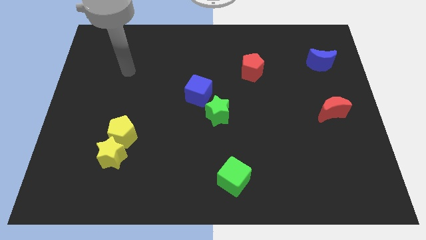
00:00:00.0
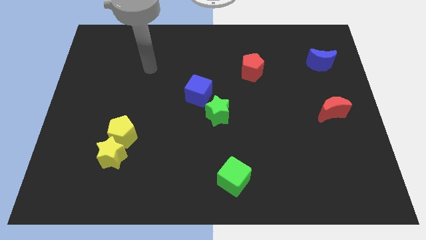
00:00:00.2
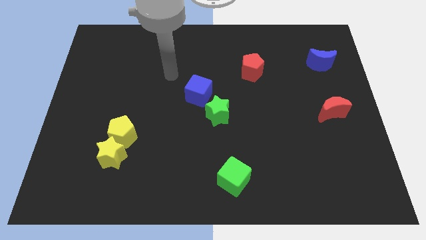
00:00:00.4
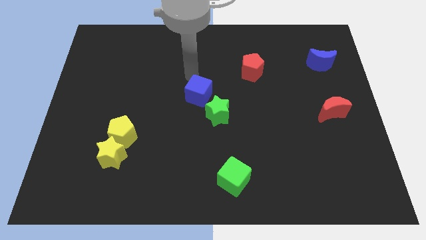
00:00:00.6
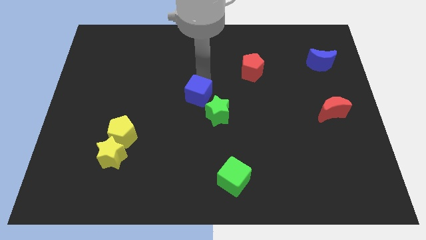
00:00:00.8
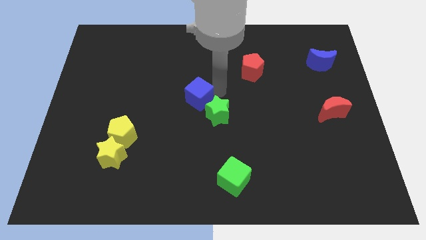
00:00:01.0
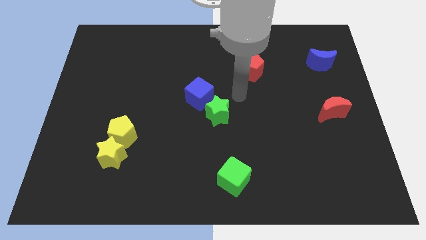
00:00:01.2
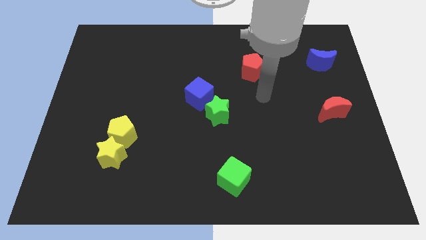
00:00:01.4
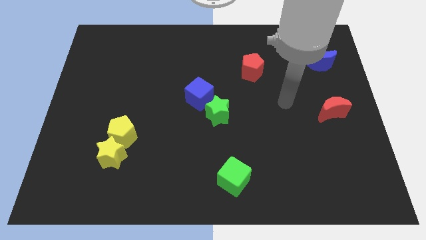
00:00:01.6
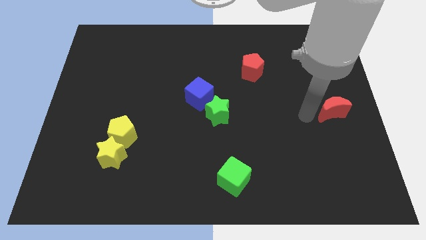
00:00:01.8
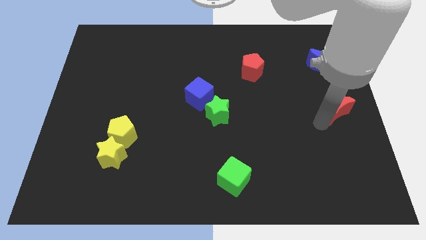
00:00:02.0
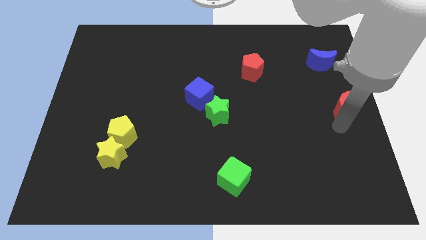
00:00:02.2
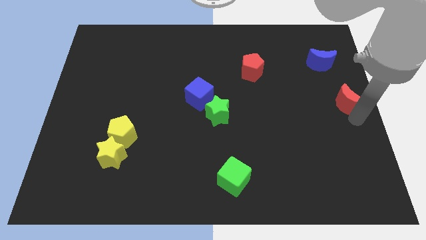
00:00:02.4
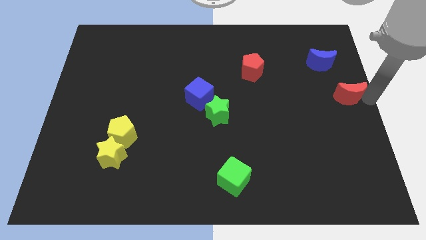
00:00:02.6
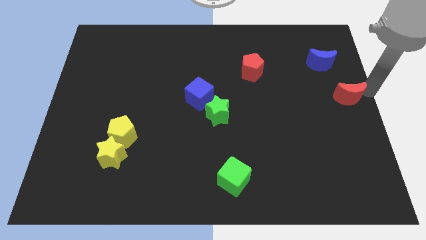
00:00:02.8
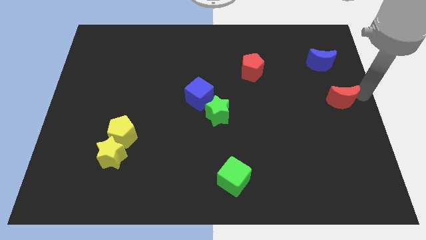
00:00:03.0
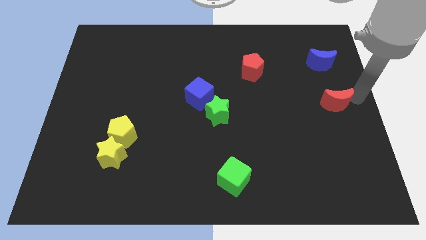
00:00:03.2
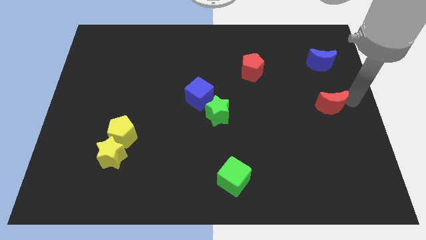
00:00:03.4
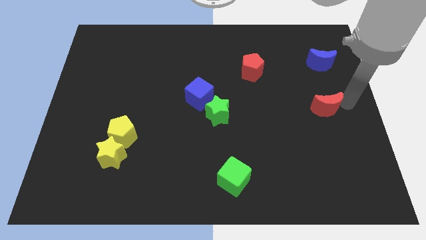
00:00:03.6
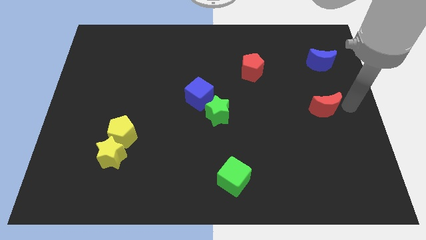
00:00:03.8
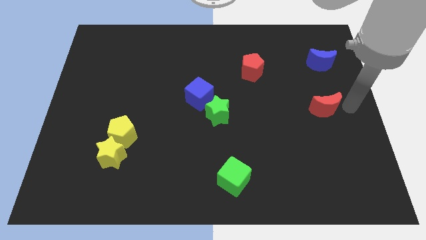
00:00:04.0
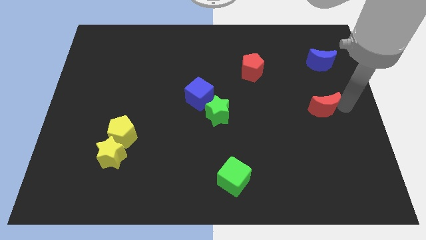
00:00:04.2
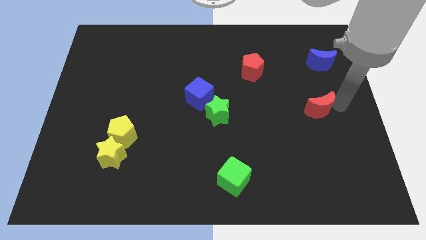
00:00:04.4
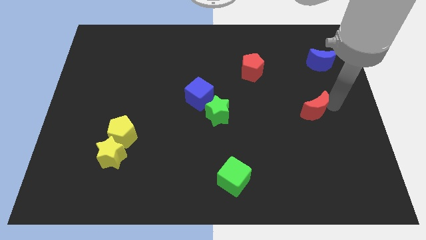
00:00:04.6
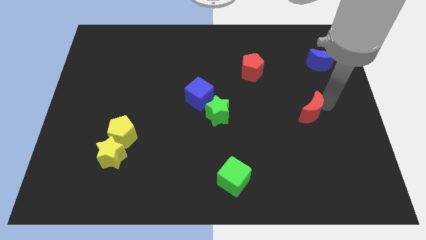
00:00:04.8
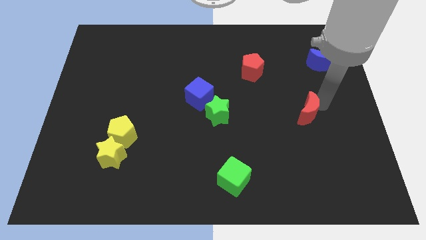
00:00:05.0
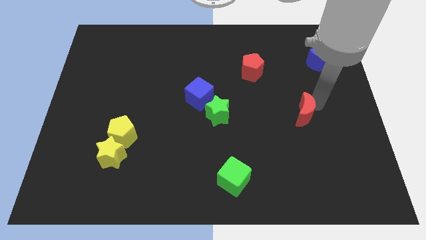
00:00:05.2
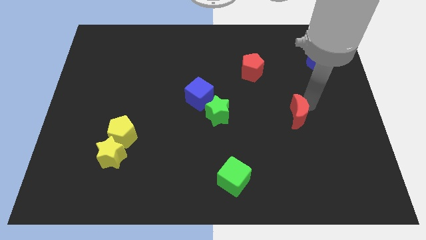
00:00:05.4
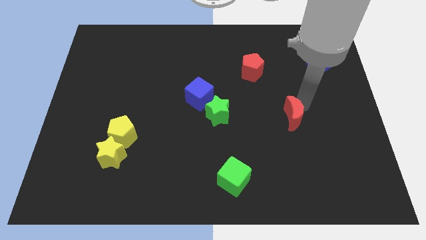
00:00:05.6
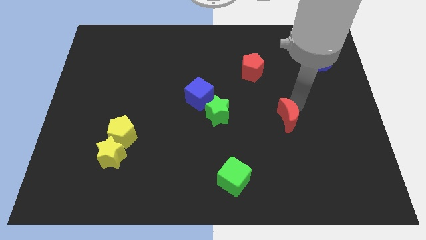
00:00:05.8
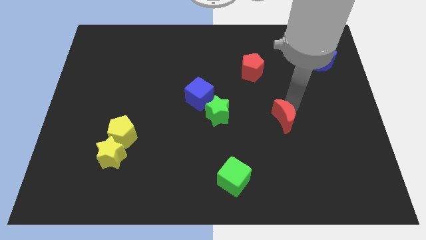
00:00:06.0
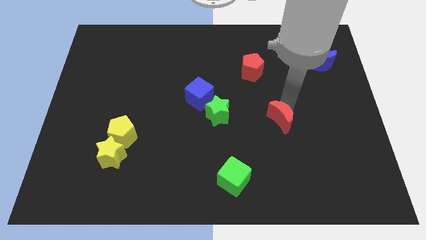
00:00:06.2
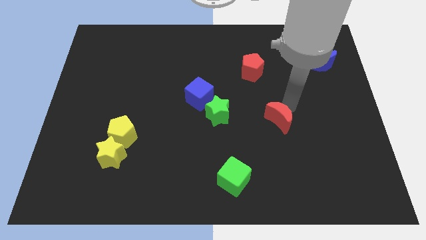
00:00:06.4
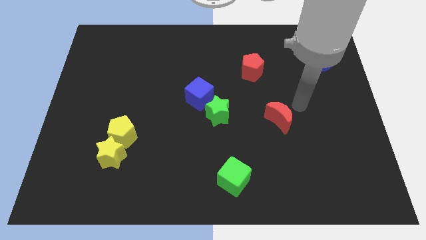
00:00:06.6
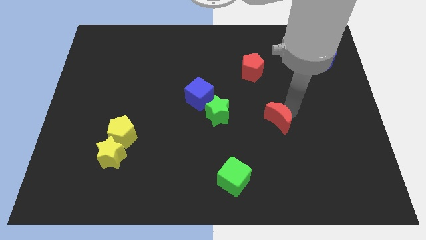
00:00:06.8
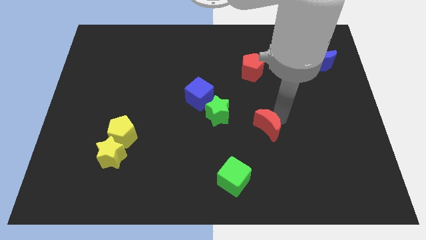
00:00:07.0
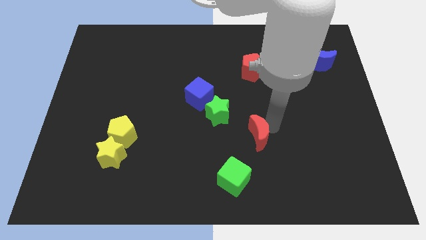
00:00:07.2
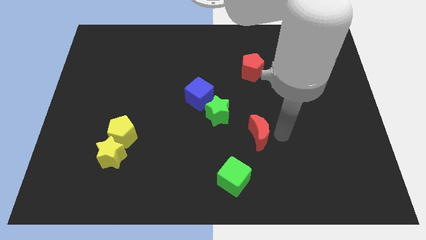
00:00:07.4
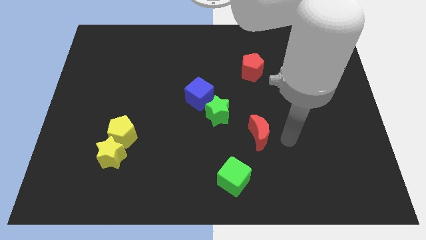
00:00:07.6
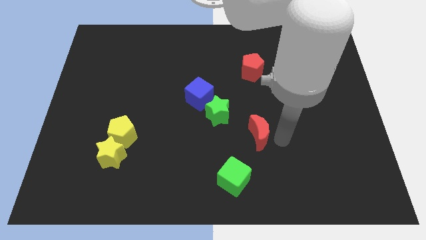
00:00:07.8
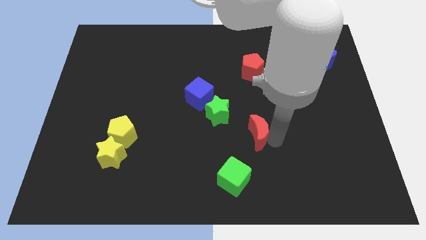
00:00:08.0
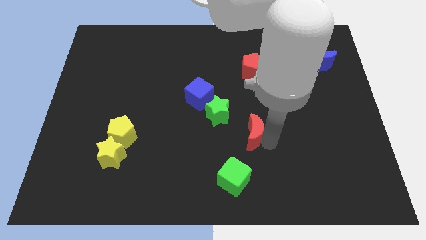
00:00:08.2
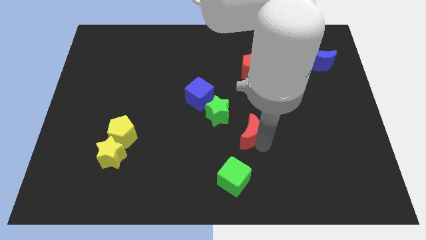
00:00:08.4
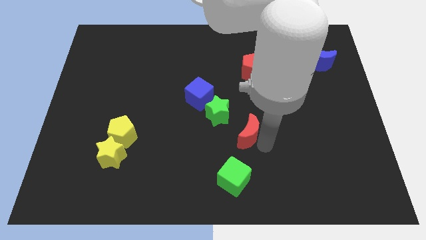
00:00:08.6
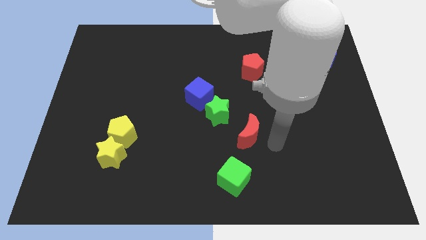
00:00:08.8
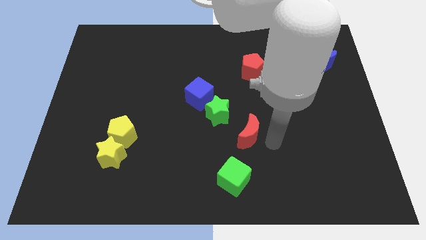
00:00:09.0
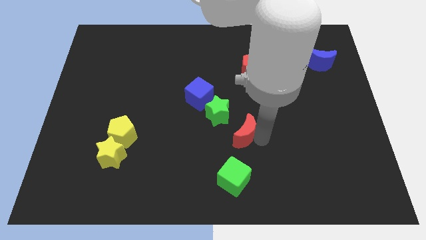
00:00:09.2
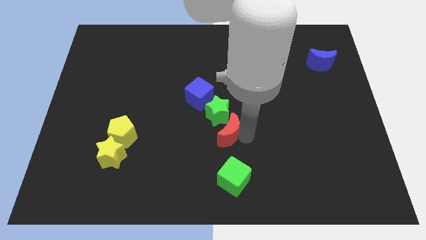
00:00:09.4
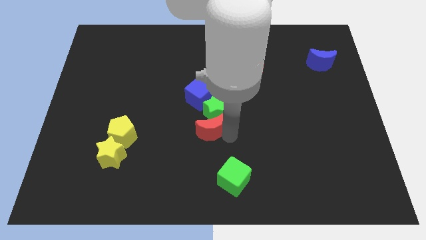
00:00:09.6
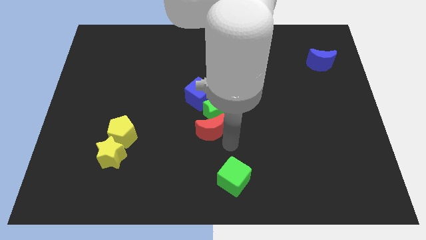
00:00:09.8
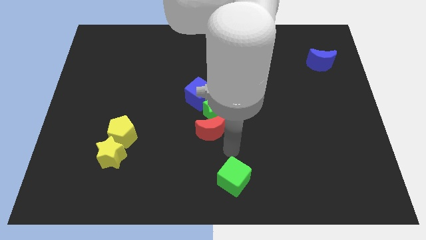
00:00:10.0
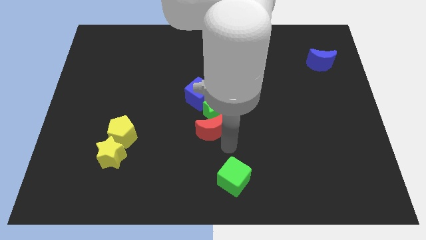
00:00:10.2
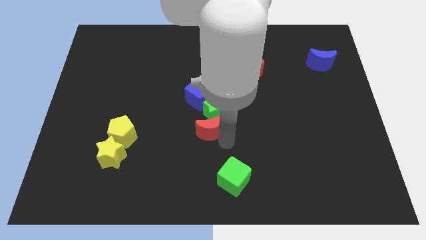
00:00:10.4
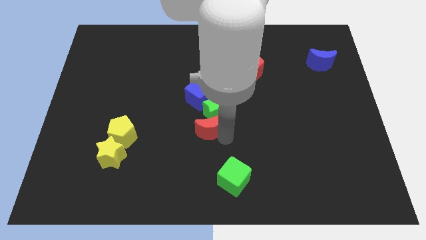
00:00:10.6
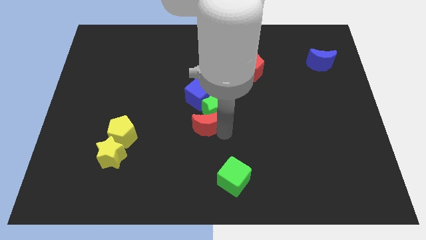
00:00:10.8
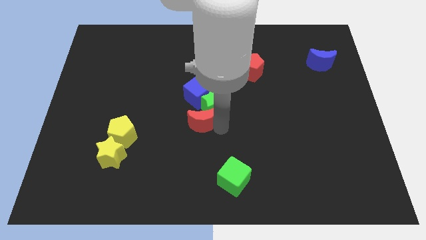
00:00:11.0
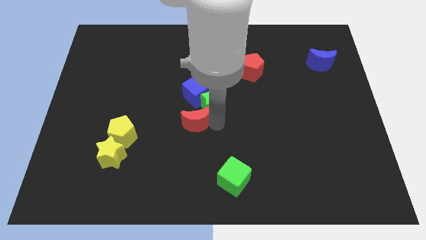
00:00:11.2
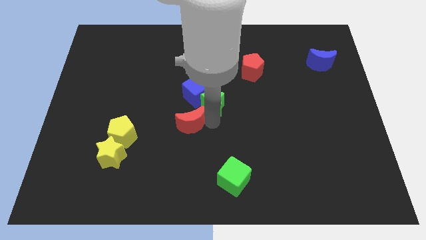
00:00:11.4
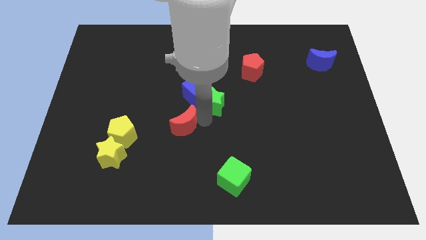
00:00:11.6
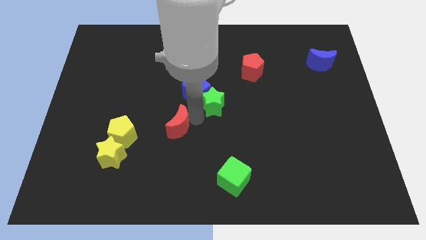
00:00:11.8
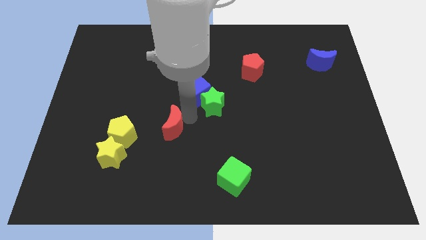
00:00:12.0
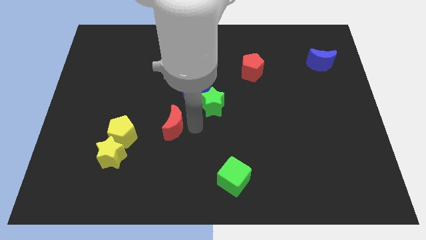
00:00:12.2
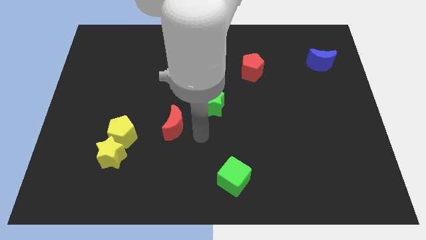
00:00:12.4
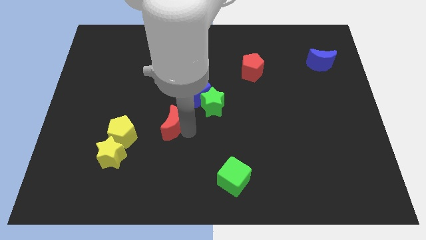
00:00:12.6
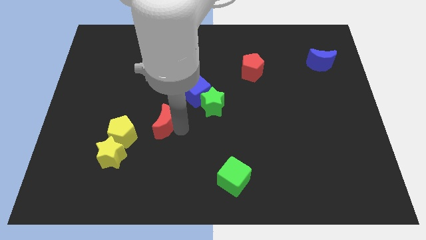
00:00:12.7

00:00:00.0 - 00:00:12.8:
push the red moon diagonally up and to the right of the yellow pentagon

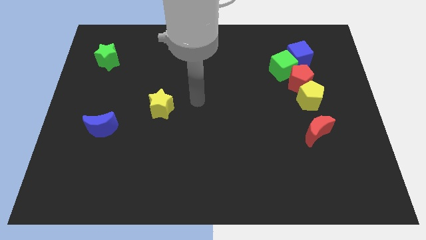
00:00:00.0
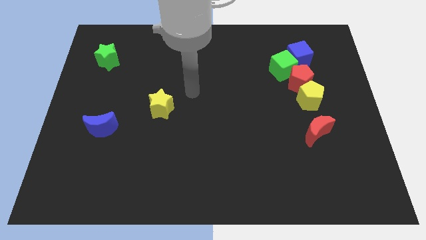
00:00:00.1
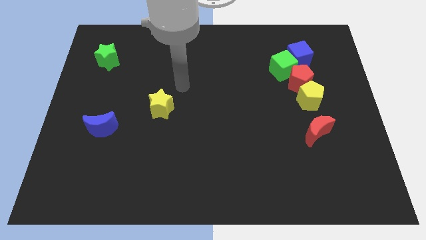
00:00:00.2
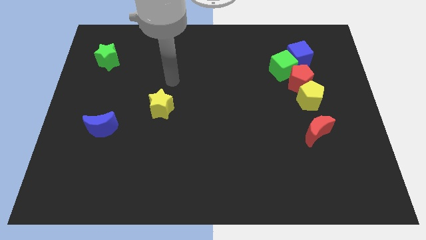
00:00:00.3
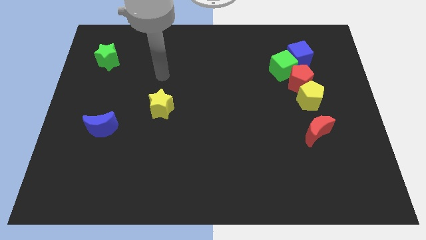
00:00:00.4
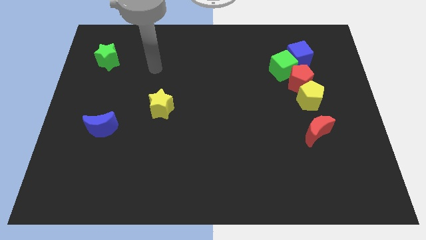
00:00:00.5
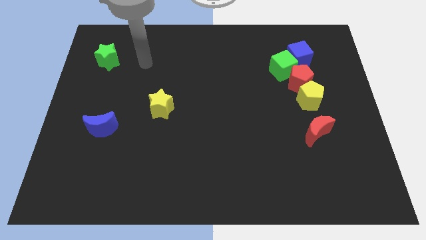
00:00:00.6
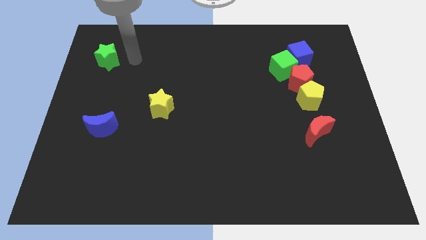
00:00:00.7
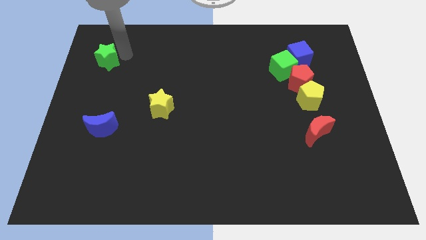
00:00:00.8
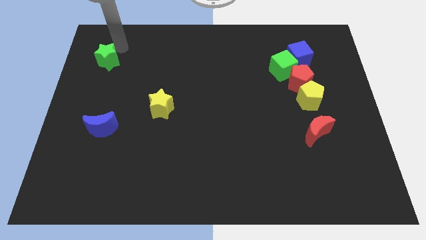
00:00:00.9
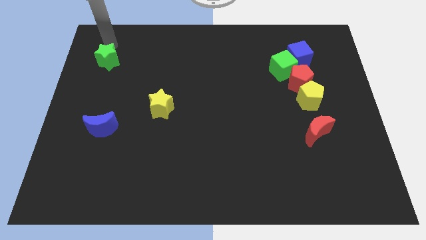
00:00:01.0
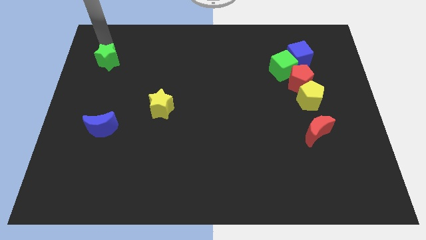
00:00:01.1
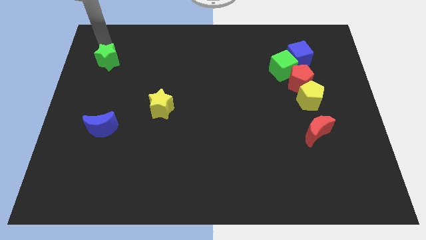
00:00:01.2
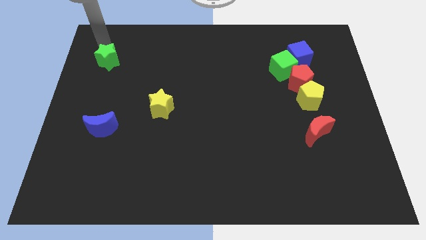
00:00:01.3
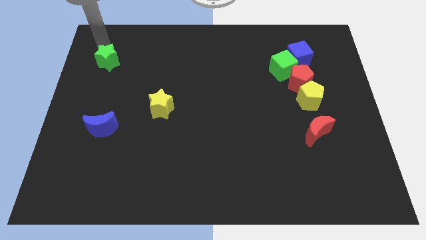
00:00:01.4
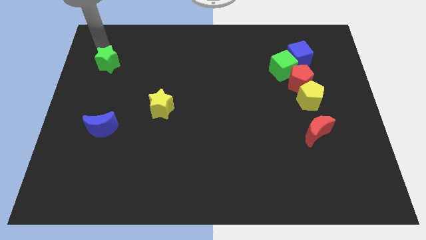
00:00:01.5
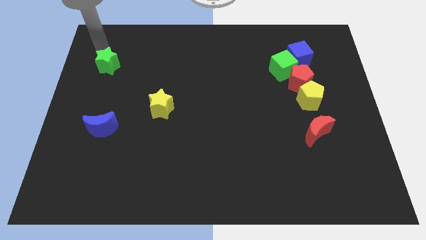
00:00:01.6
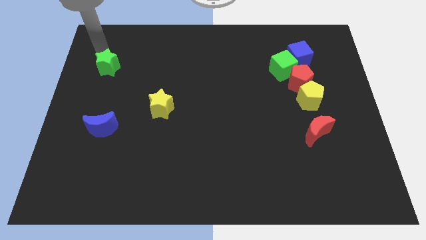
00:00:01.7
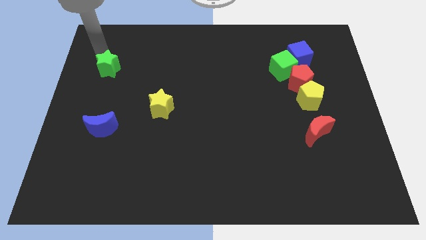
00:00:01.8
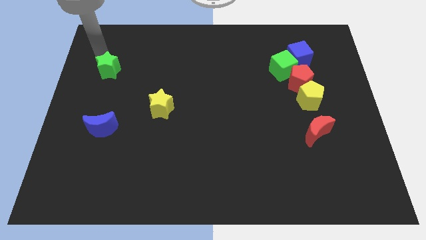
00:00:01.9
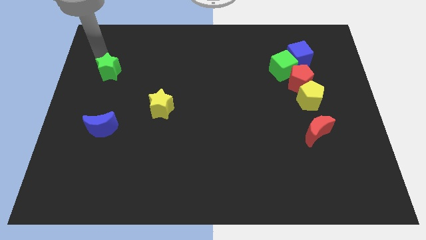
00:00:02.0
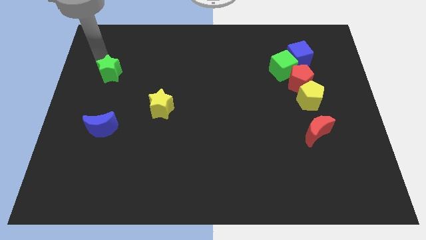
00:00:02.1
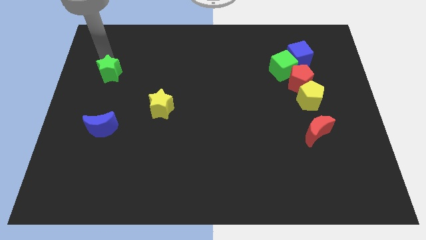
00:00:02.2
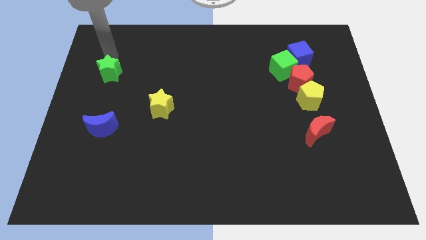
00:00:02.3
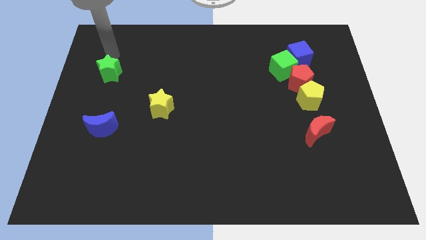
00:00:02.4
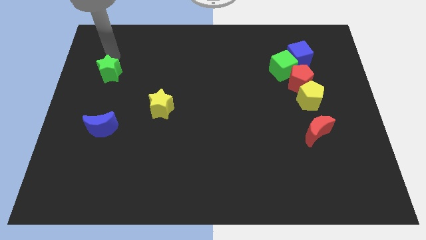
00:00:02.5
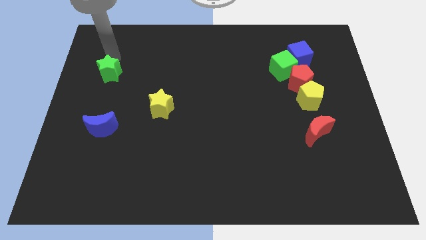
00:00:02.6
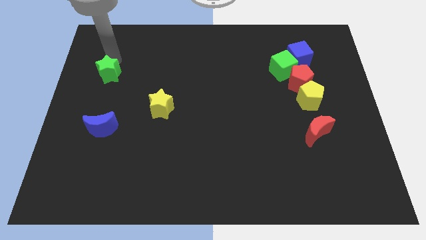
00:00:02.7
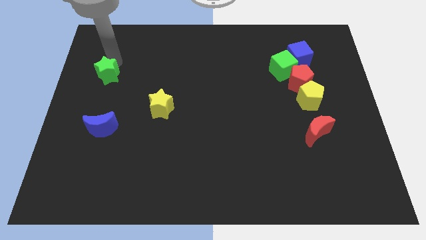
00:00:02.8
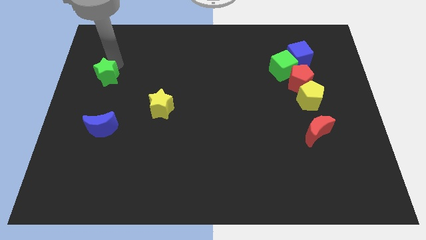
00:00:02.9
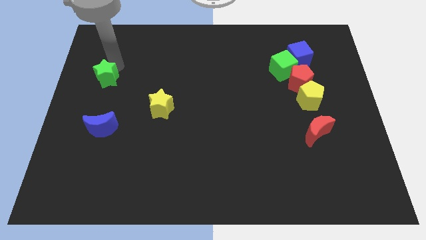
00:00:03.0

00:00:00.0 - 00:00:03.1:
put the green star to the top of the blue moon
